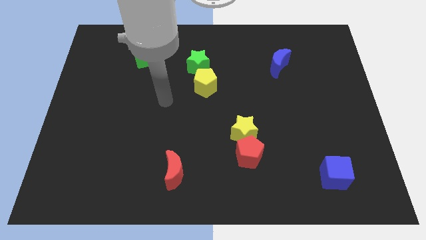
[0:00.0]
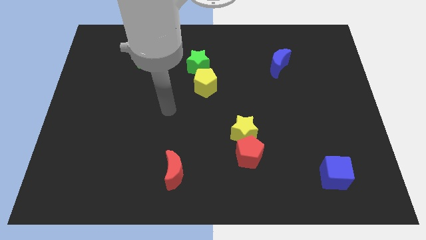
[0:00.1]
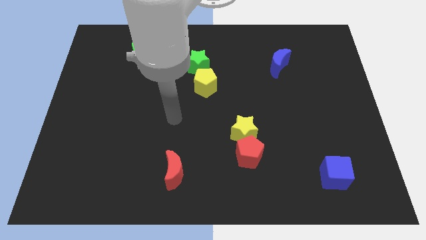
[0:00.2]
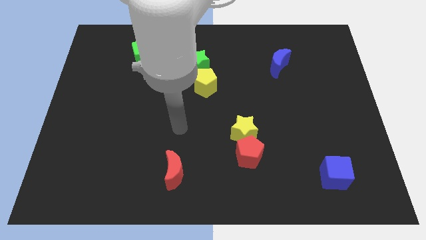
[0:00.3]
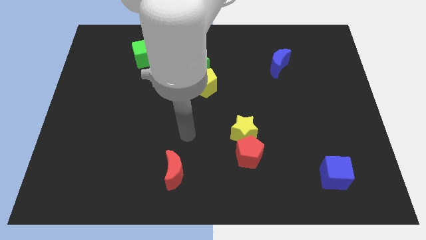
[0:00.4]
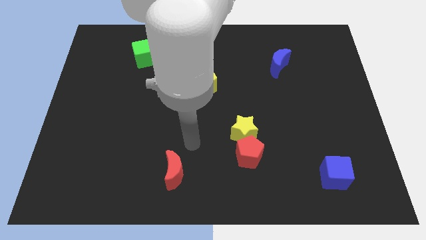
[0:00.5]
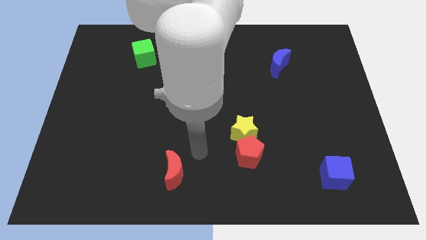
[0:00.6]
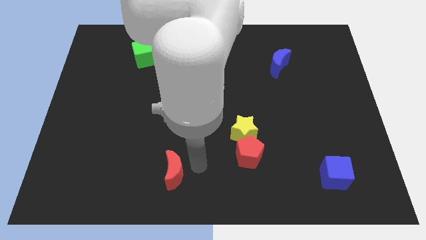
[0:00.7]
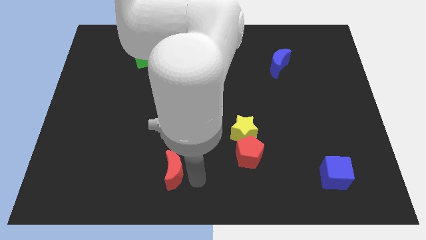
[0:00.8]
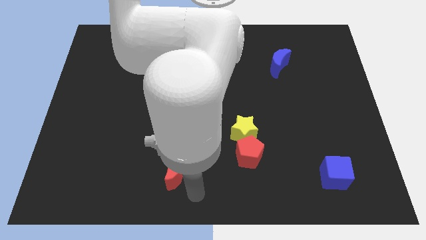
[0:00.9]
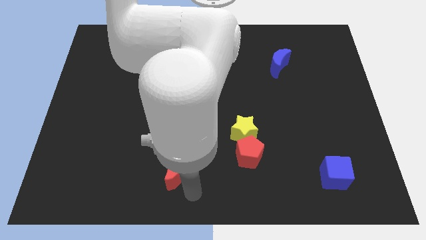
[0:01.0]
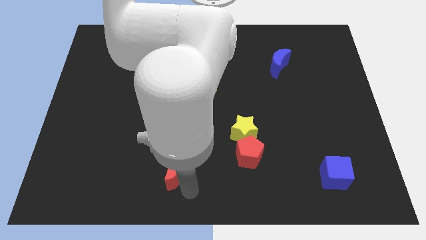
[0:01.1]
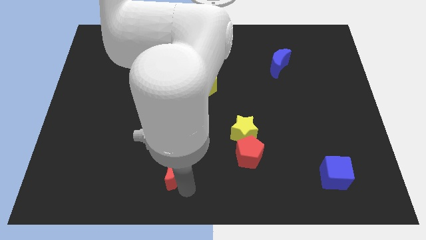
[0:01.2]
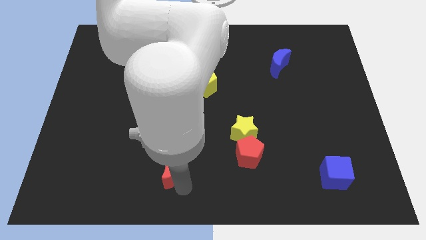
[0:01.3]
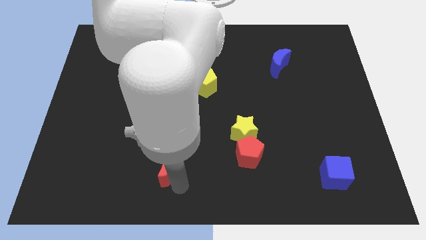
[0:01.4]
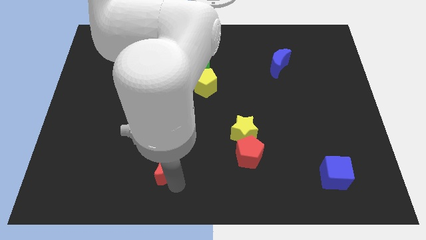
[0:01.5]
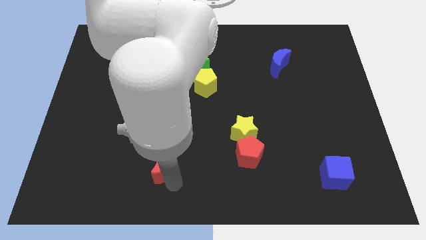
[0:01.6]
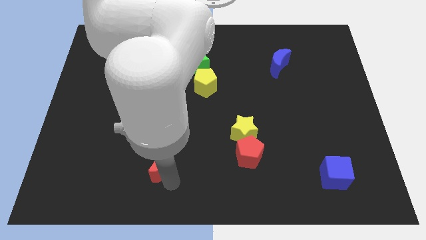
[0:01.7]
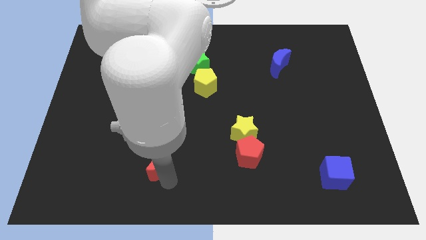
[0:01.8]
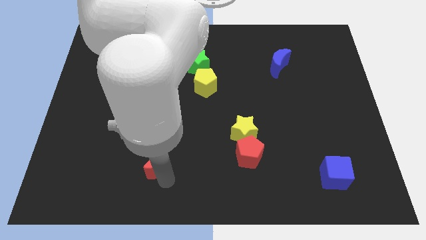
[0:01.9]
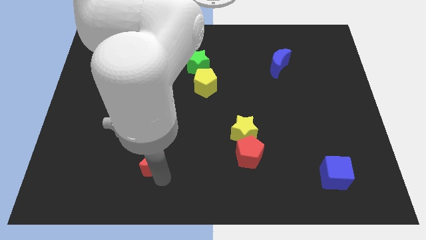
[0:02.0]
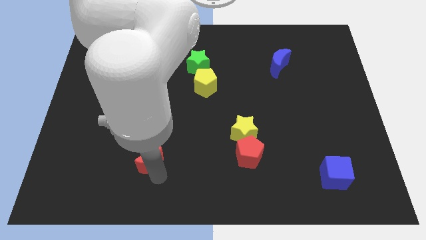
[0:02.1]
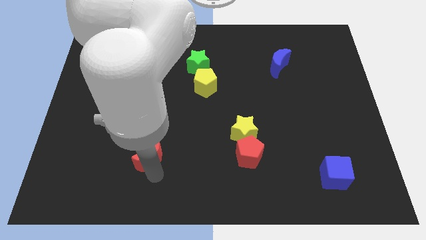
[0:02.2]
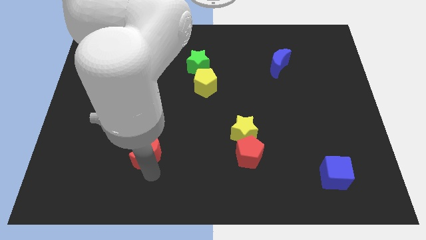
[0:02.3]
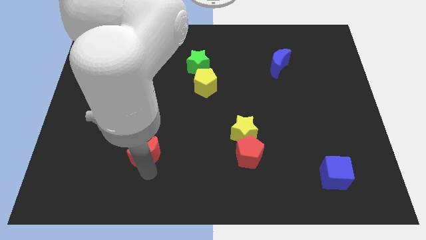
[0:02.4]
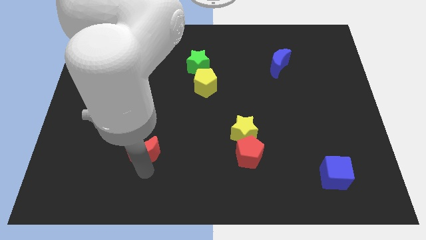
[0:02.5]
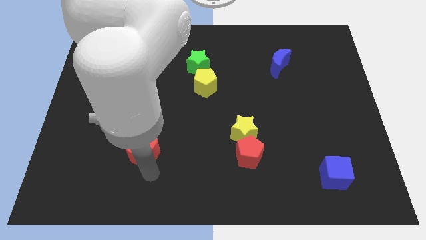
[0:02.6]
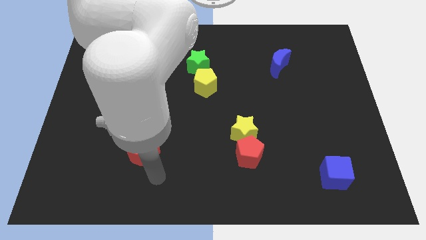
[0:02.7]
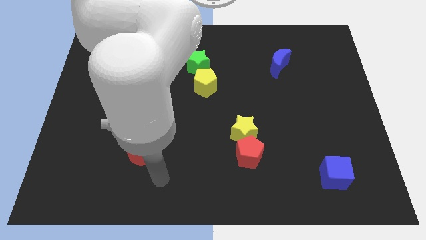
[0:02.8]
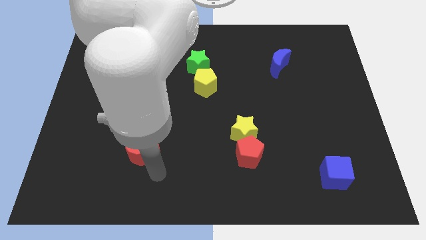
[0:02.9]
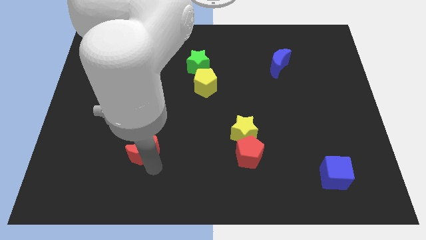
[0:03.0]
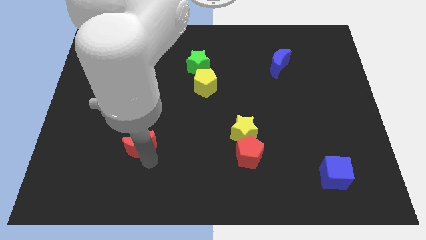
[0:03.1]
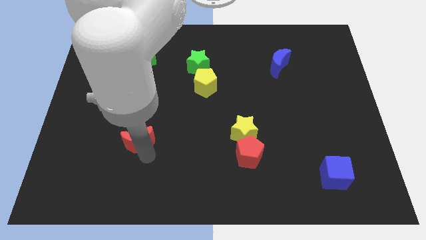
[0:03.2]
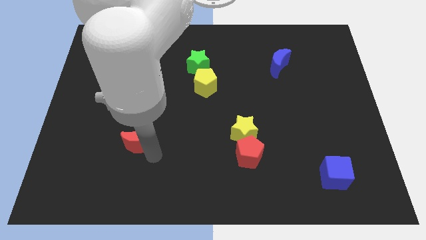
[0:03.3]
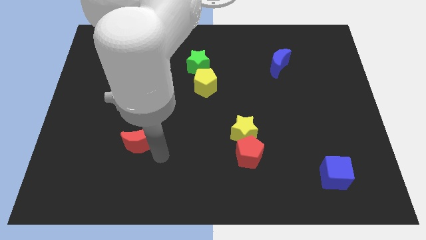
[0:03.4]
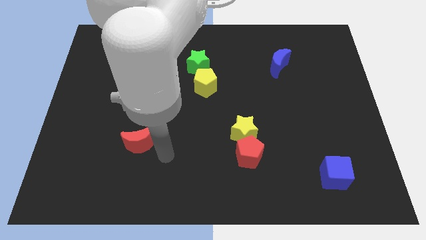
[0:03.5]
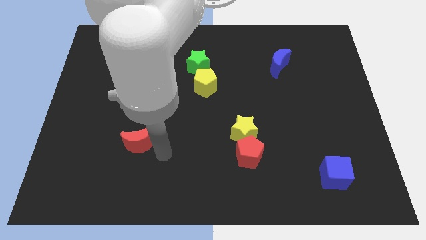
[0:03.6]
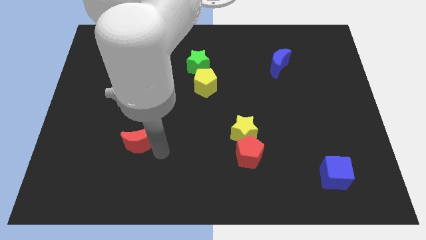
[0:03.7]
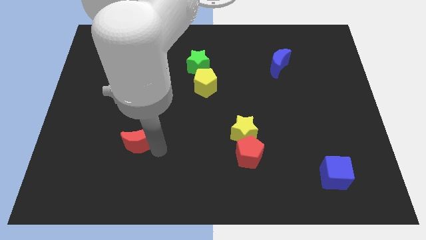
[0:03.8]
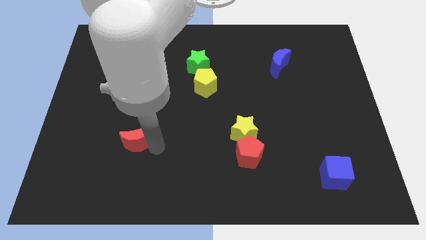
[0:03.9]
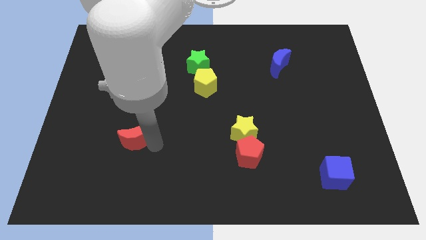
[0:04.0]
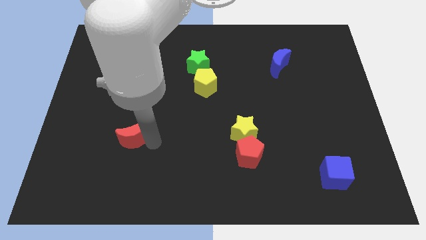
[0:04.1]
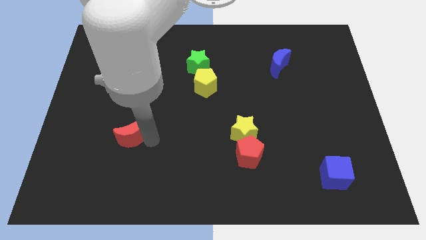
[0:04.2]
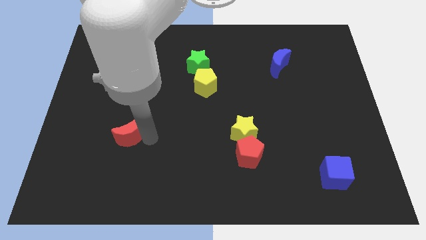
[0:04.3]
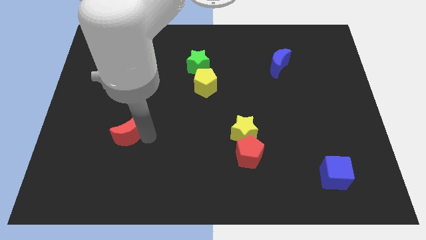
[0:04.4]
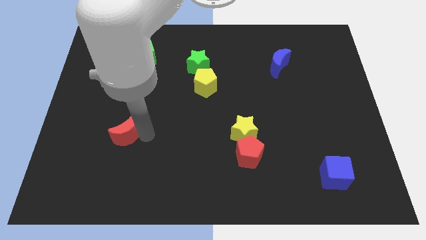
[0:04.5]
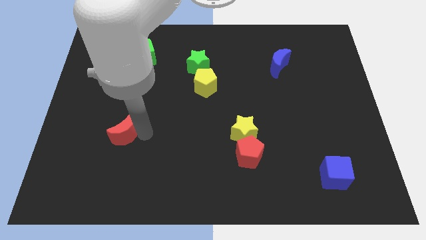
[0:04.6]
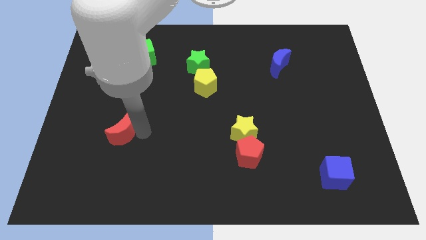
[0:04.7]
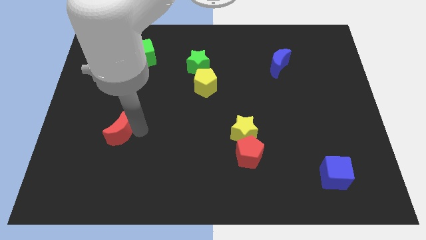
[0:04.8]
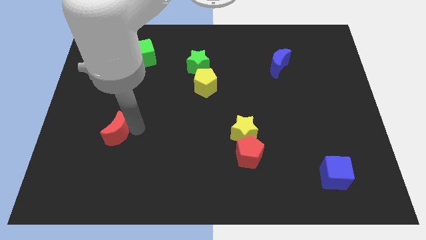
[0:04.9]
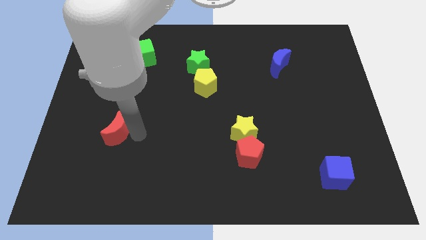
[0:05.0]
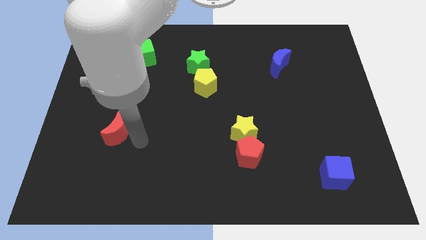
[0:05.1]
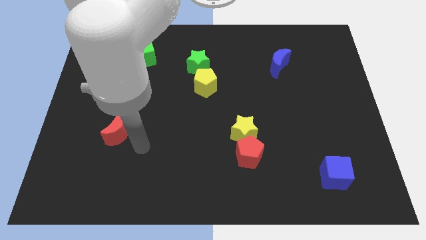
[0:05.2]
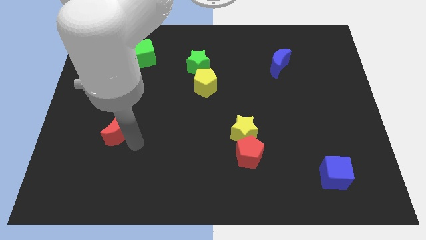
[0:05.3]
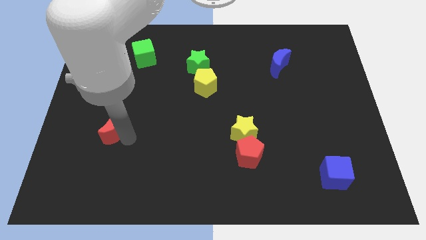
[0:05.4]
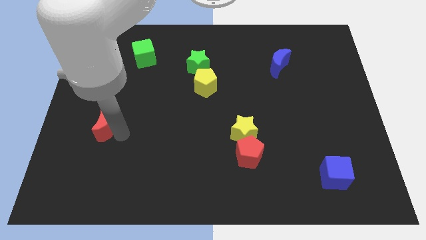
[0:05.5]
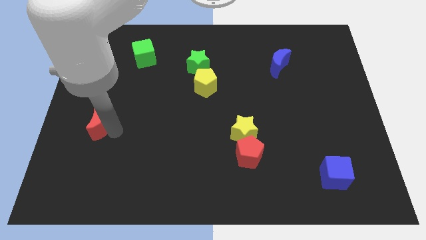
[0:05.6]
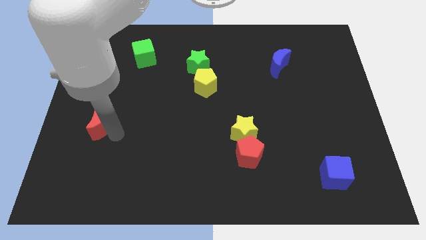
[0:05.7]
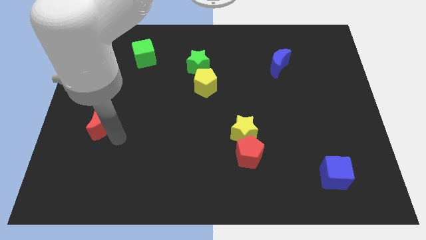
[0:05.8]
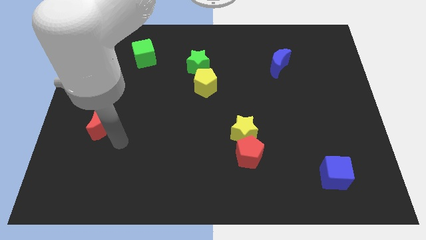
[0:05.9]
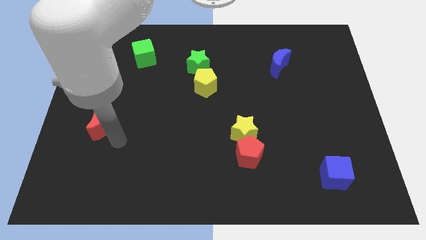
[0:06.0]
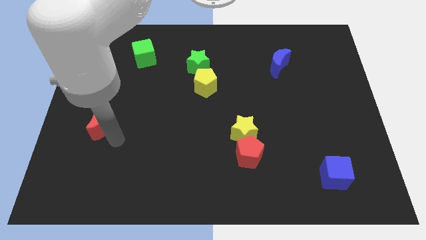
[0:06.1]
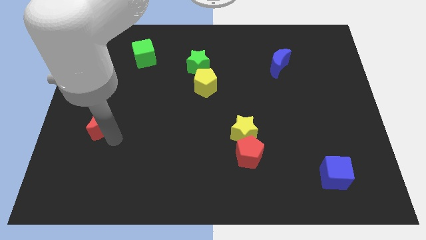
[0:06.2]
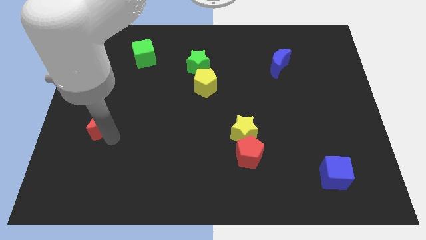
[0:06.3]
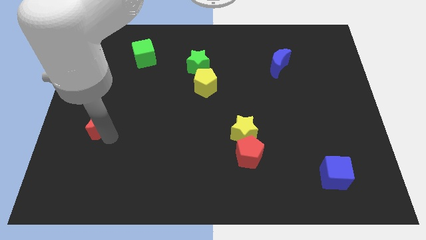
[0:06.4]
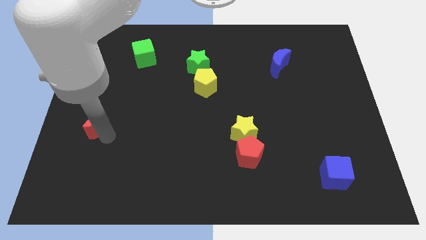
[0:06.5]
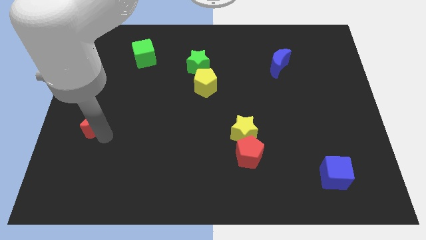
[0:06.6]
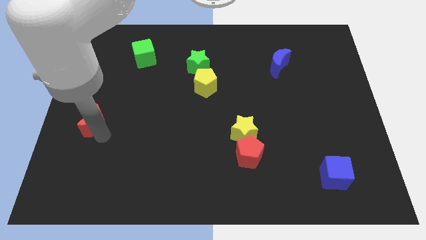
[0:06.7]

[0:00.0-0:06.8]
put the red moon to the left side of the board
